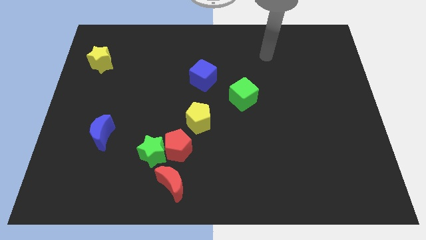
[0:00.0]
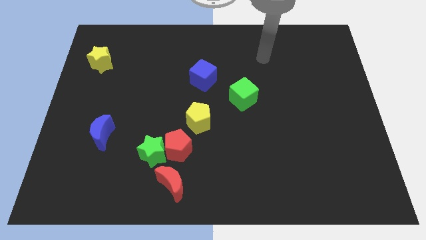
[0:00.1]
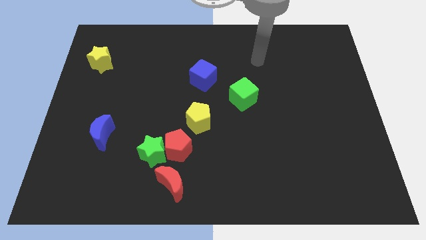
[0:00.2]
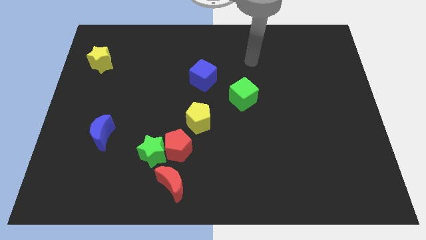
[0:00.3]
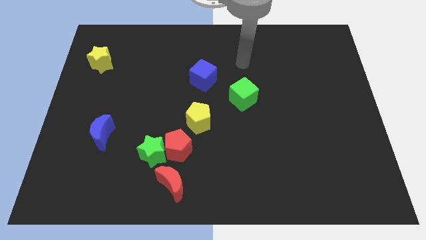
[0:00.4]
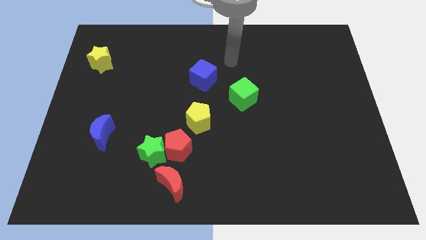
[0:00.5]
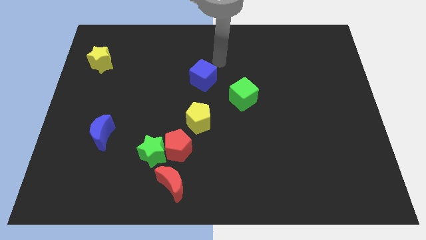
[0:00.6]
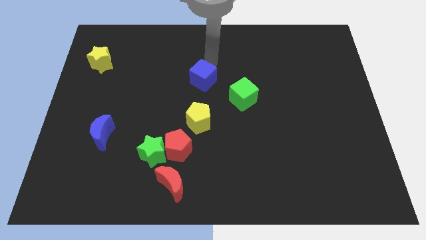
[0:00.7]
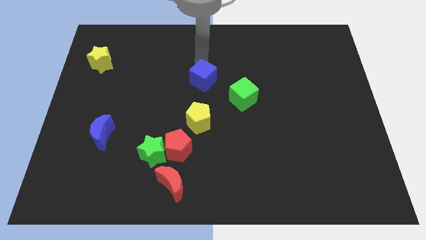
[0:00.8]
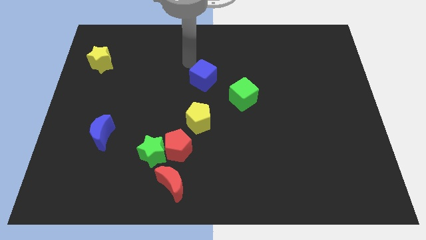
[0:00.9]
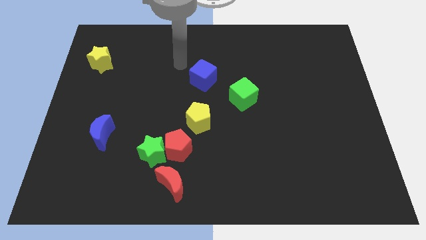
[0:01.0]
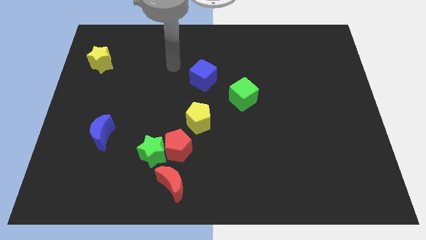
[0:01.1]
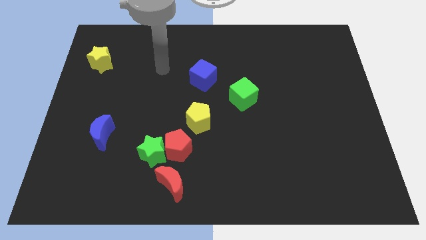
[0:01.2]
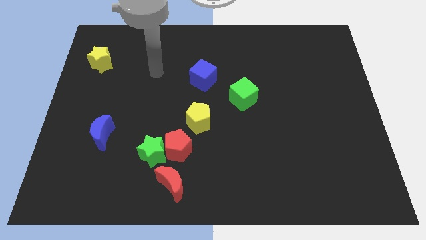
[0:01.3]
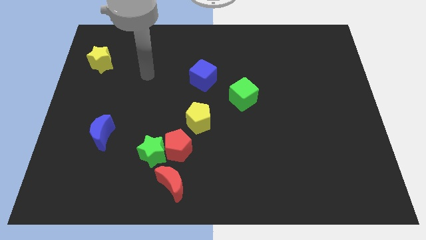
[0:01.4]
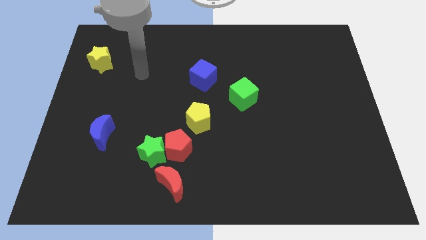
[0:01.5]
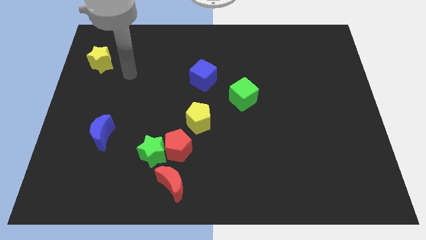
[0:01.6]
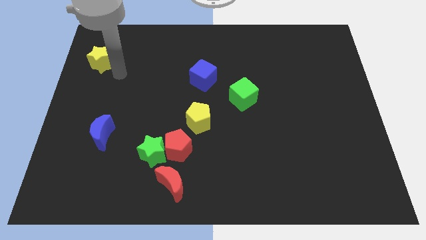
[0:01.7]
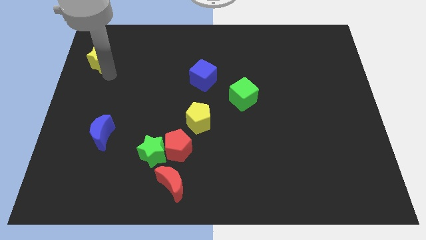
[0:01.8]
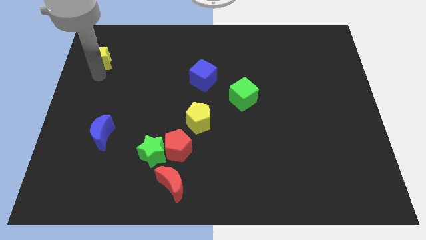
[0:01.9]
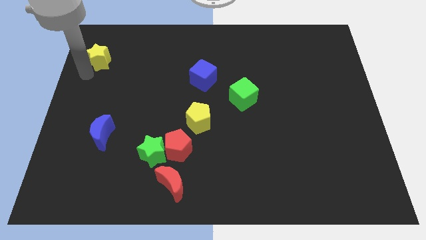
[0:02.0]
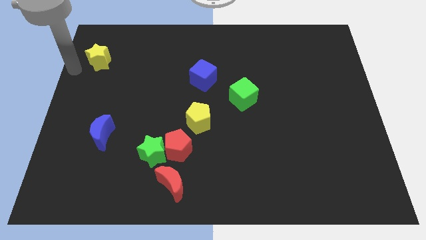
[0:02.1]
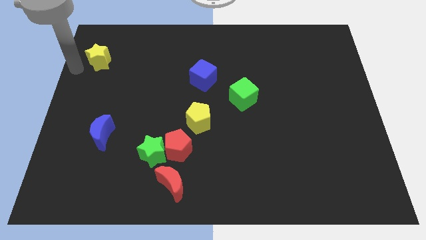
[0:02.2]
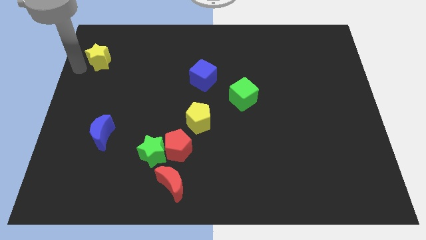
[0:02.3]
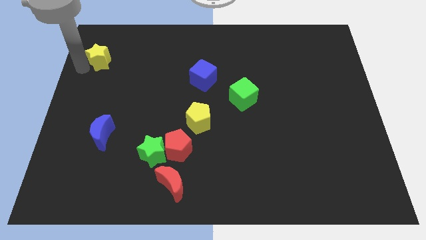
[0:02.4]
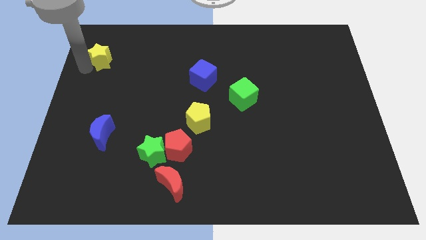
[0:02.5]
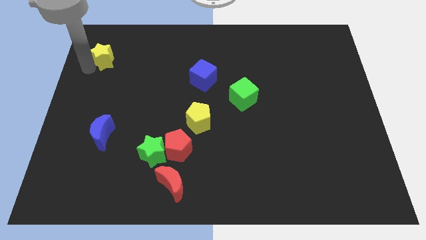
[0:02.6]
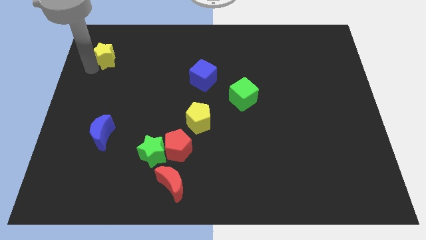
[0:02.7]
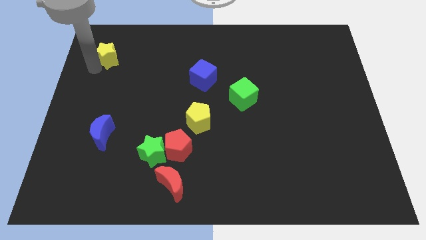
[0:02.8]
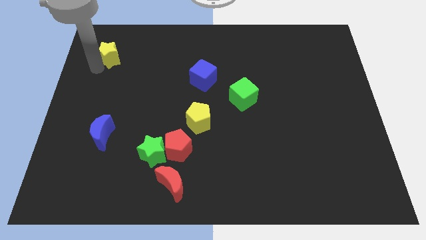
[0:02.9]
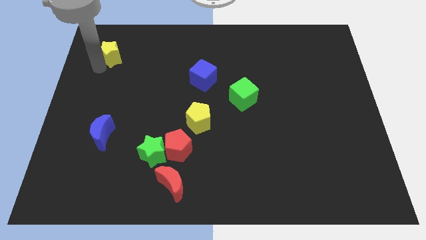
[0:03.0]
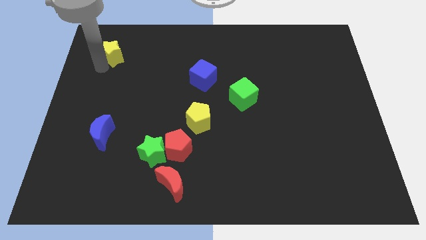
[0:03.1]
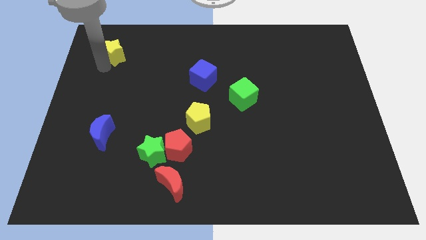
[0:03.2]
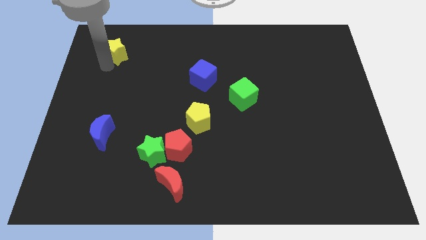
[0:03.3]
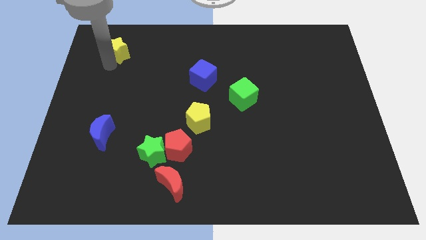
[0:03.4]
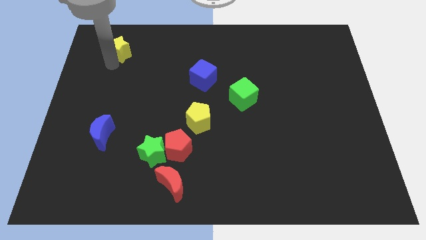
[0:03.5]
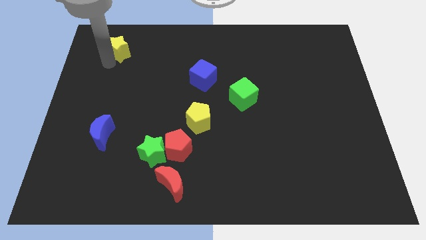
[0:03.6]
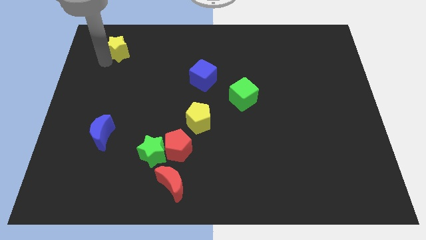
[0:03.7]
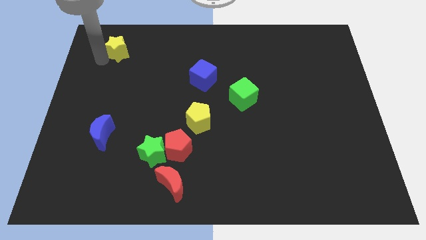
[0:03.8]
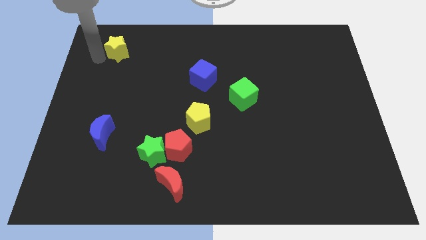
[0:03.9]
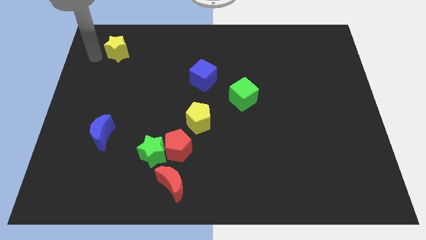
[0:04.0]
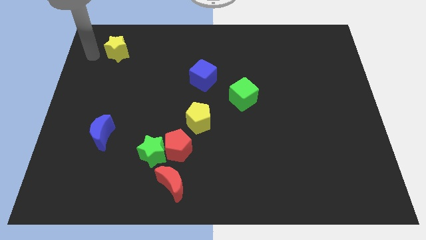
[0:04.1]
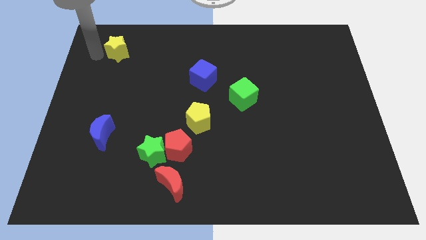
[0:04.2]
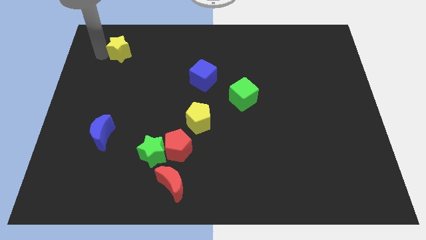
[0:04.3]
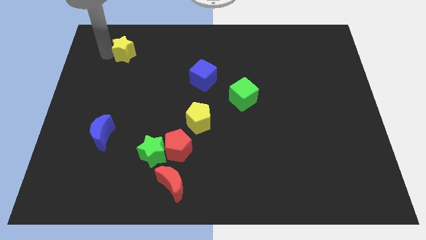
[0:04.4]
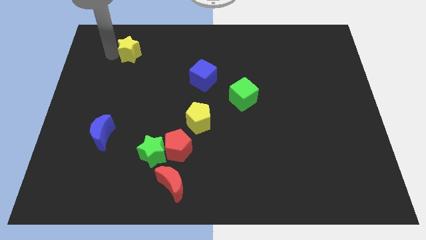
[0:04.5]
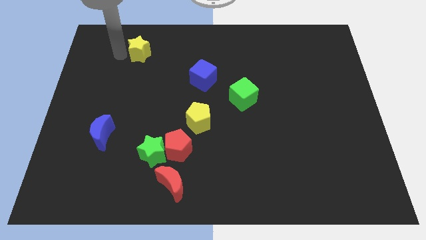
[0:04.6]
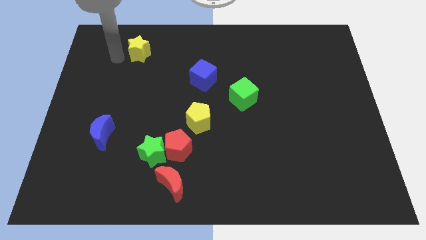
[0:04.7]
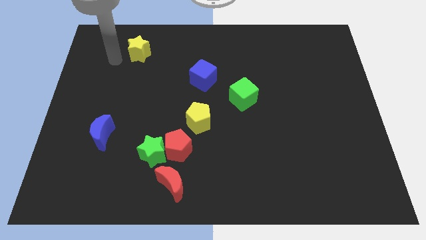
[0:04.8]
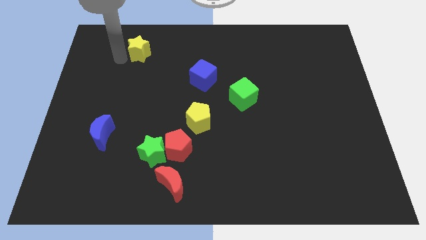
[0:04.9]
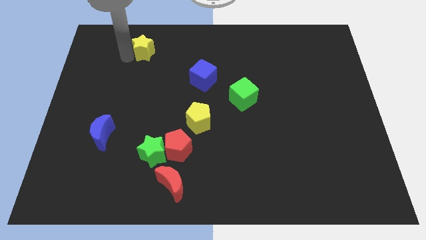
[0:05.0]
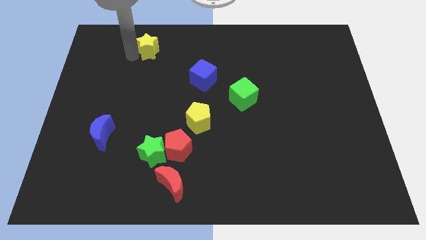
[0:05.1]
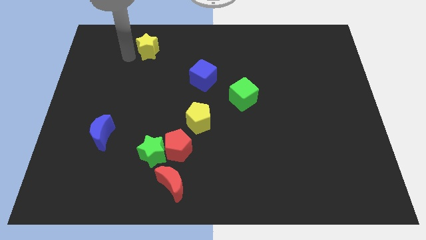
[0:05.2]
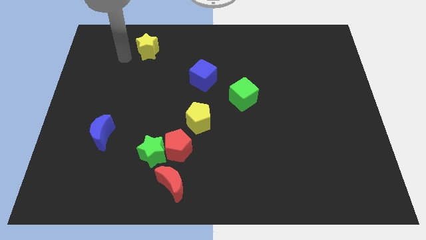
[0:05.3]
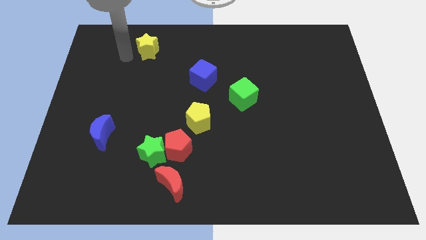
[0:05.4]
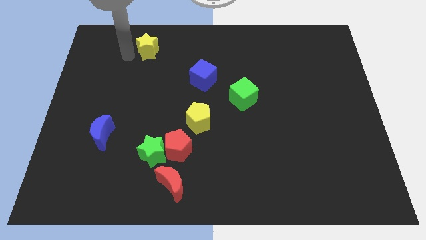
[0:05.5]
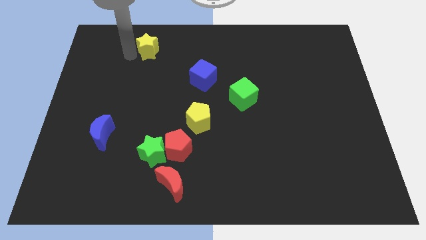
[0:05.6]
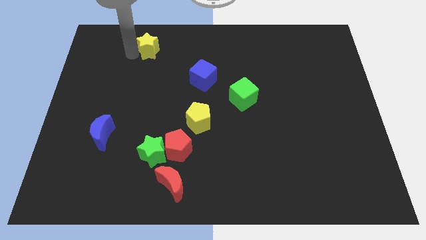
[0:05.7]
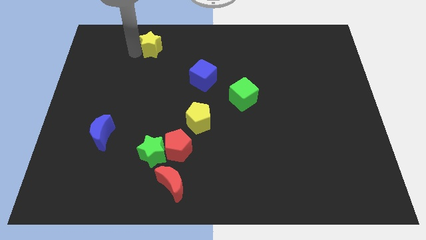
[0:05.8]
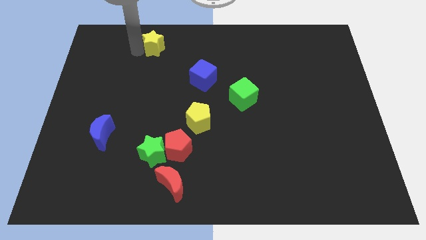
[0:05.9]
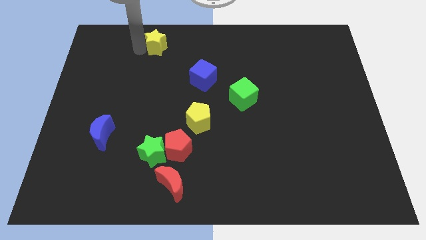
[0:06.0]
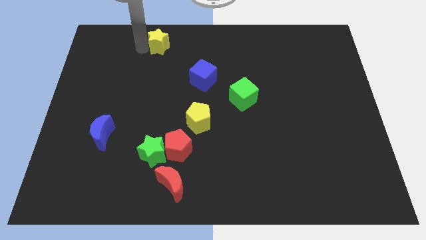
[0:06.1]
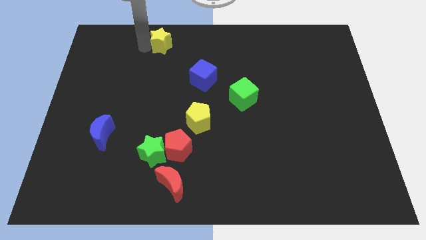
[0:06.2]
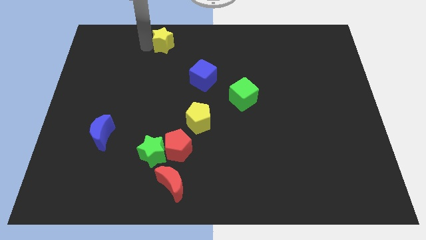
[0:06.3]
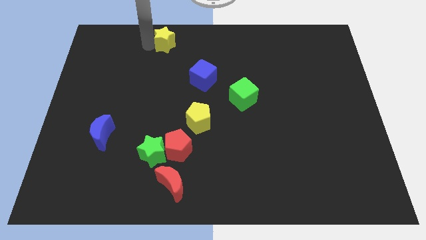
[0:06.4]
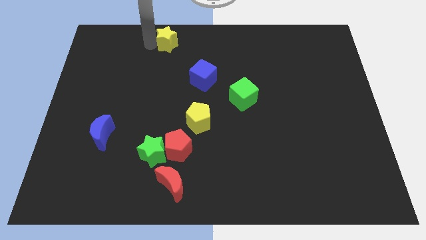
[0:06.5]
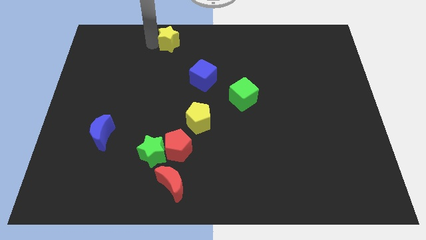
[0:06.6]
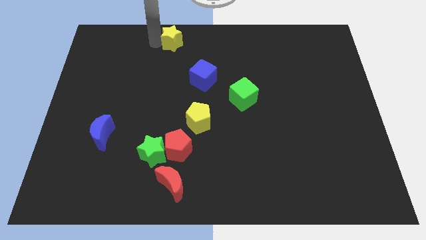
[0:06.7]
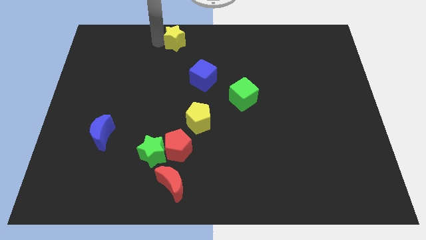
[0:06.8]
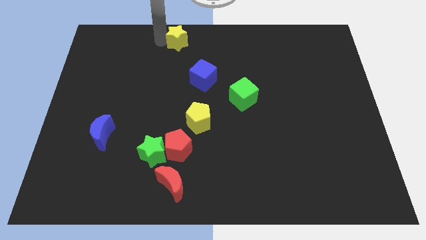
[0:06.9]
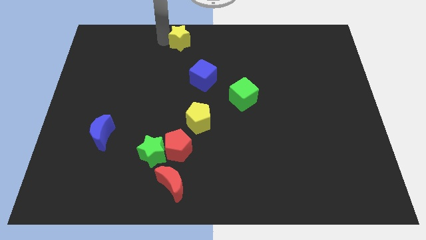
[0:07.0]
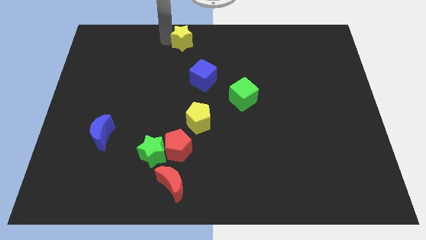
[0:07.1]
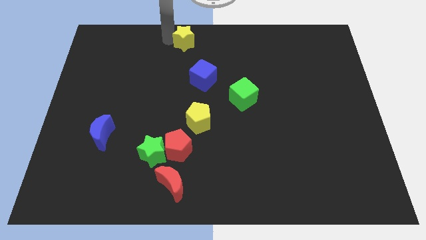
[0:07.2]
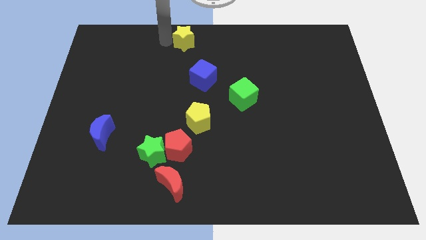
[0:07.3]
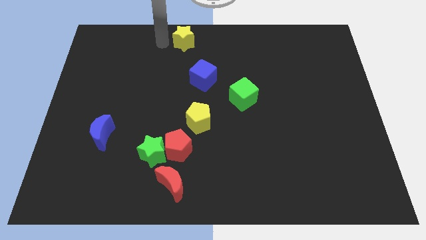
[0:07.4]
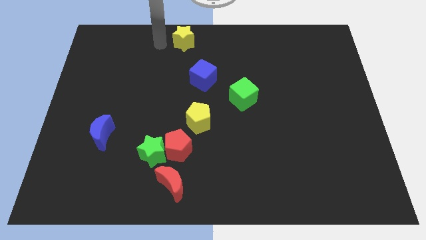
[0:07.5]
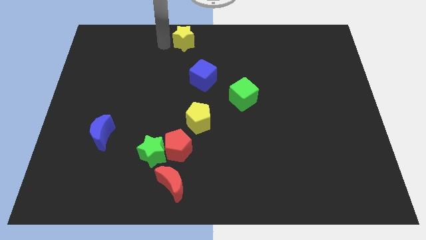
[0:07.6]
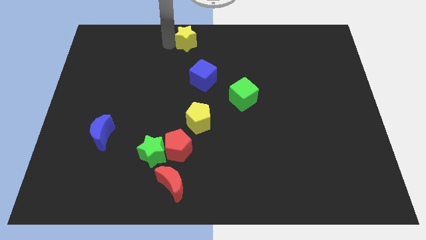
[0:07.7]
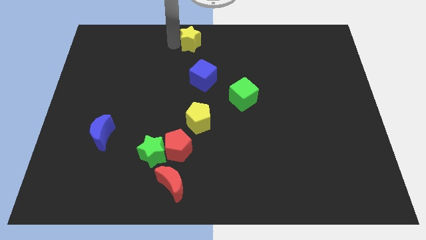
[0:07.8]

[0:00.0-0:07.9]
move the yellow star right

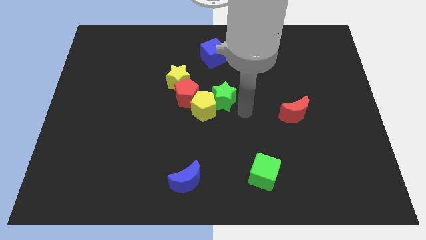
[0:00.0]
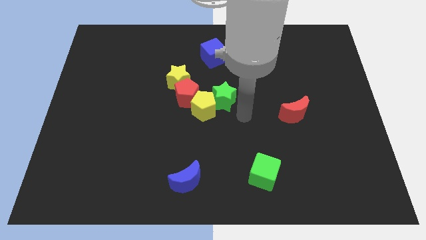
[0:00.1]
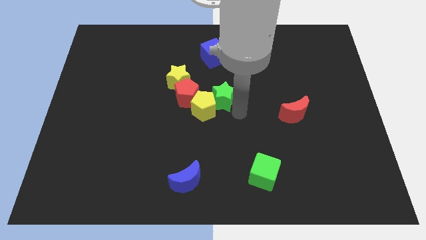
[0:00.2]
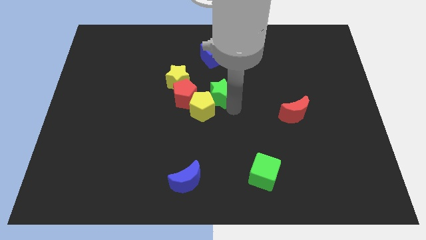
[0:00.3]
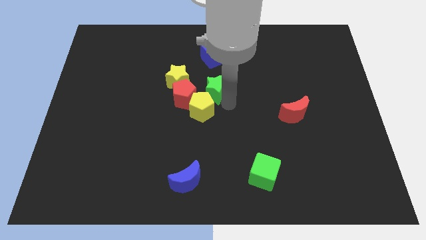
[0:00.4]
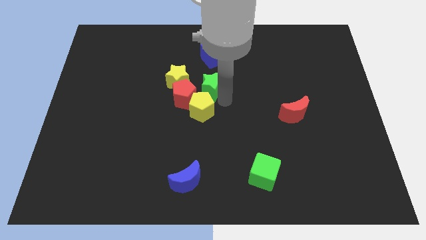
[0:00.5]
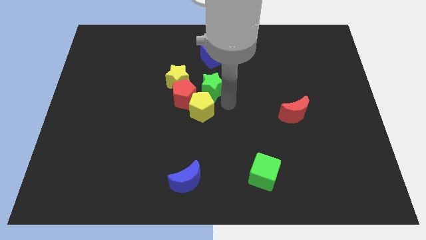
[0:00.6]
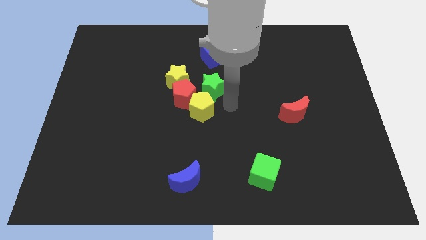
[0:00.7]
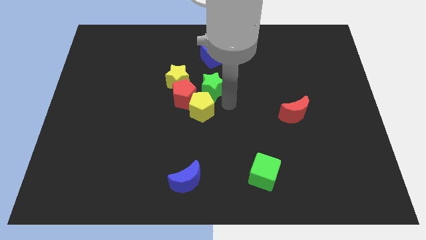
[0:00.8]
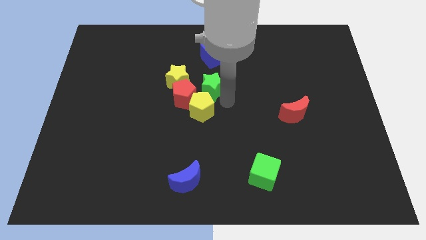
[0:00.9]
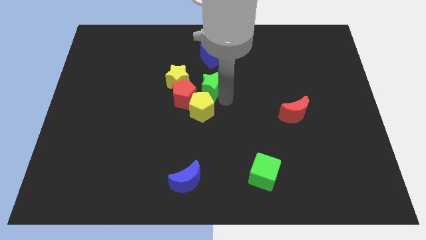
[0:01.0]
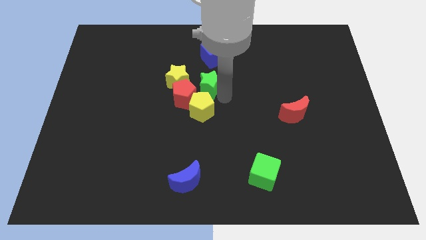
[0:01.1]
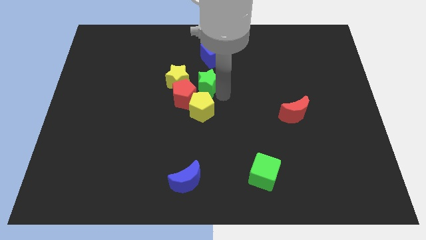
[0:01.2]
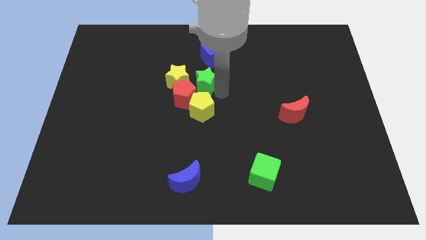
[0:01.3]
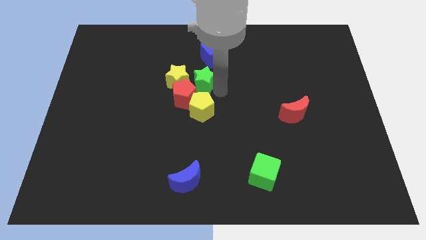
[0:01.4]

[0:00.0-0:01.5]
push the green star diagonally up and left somewhat
